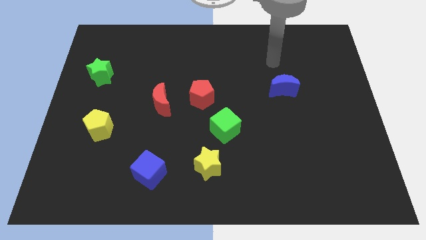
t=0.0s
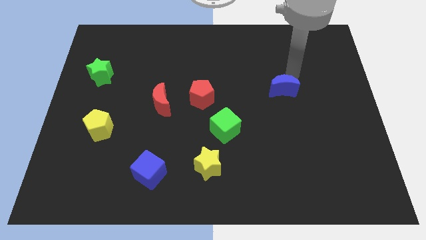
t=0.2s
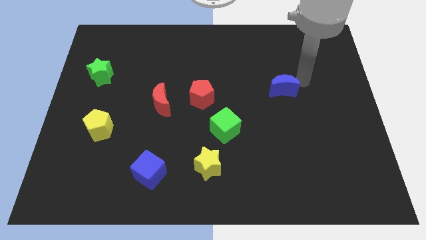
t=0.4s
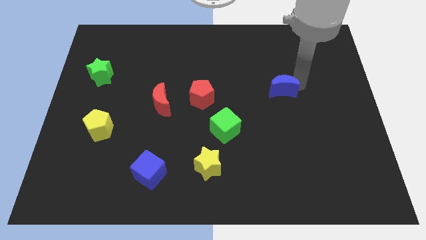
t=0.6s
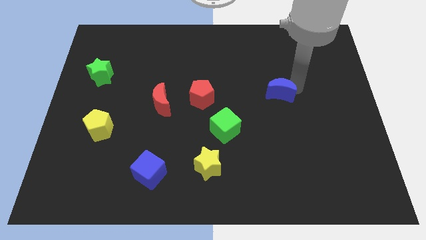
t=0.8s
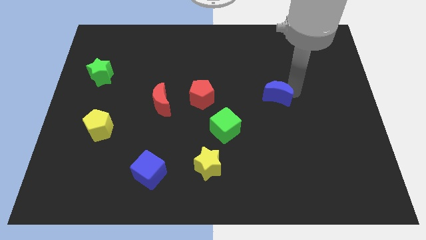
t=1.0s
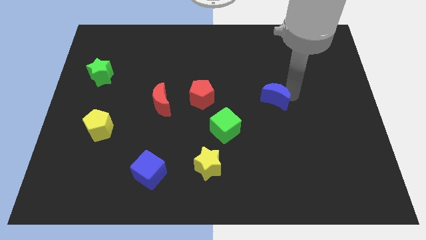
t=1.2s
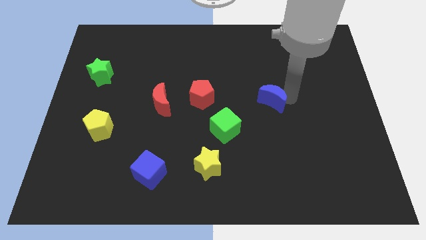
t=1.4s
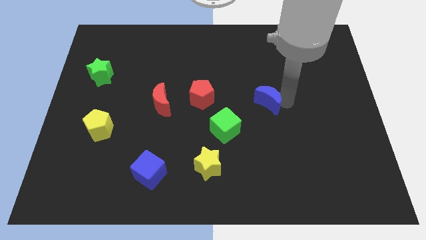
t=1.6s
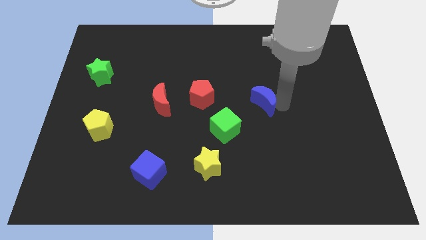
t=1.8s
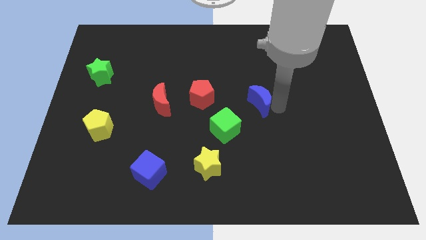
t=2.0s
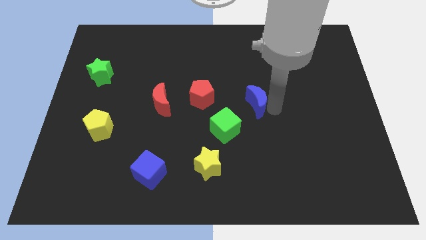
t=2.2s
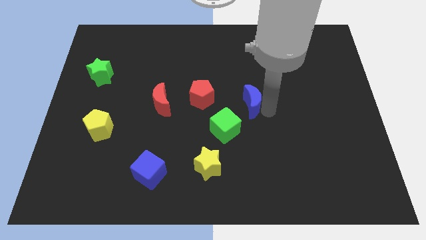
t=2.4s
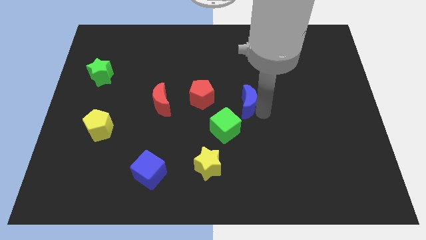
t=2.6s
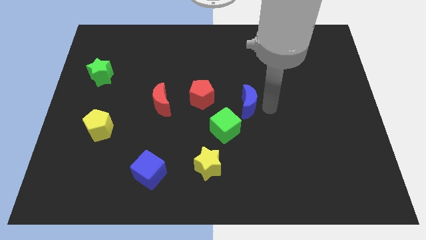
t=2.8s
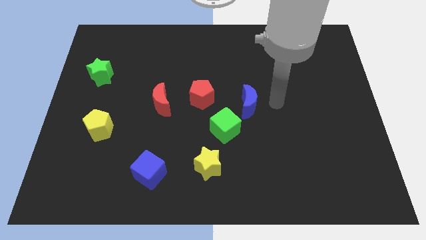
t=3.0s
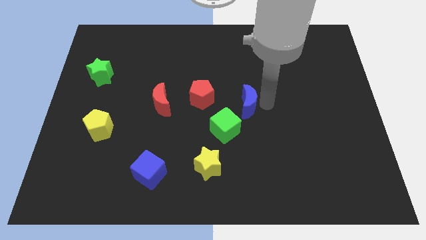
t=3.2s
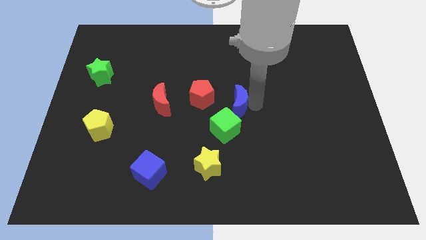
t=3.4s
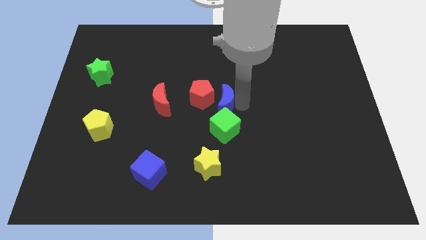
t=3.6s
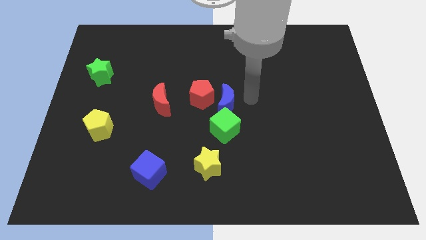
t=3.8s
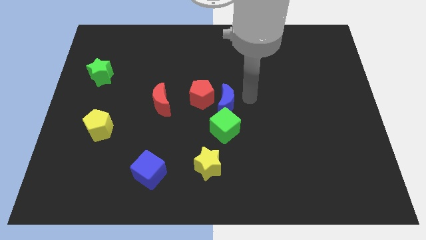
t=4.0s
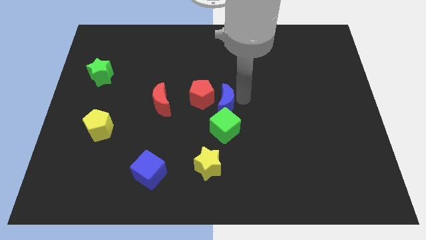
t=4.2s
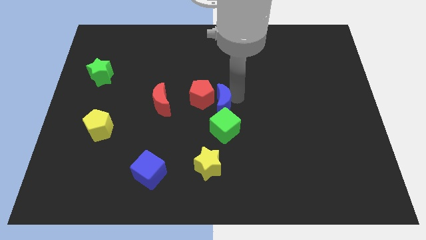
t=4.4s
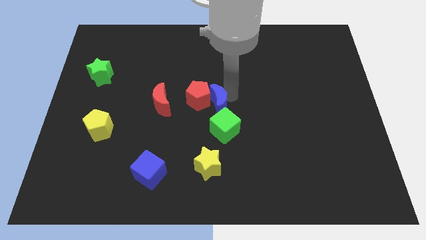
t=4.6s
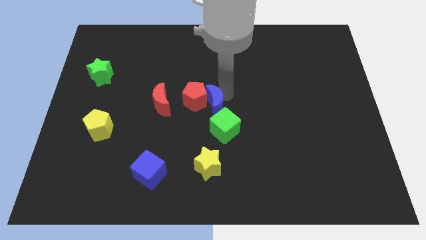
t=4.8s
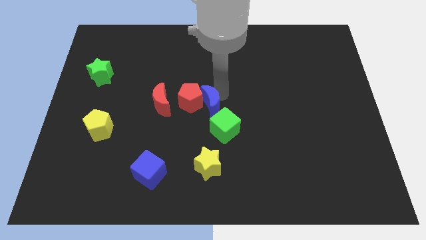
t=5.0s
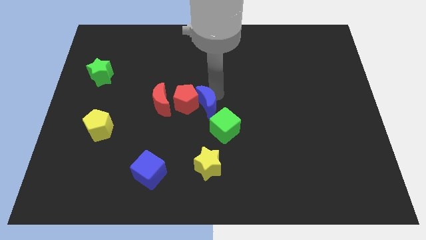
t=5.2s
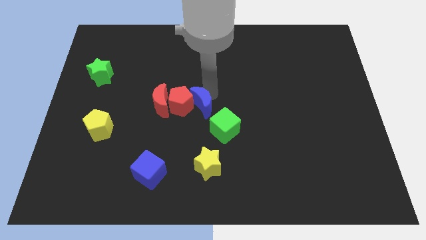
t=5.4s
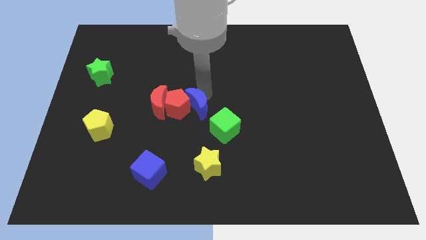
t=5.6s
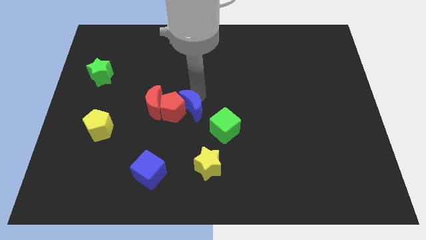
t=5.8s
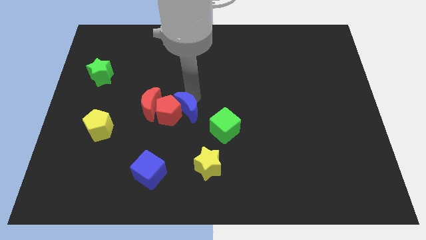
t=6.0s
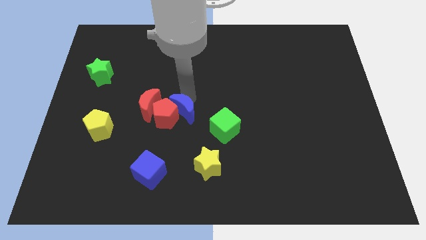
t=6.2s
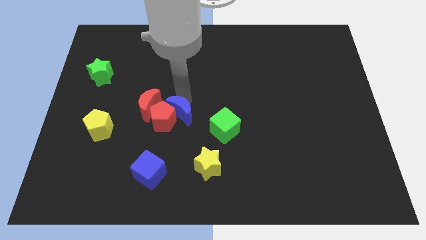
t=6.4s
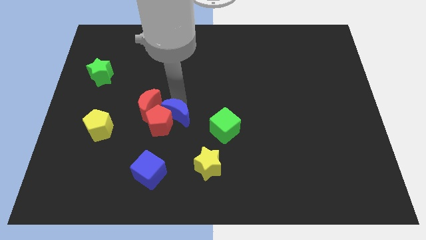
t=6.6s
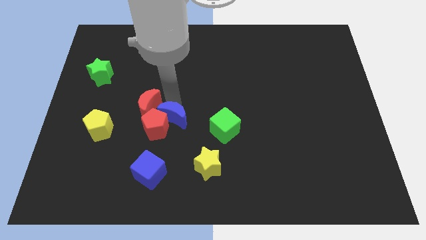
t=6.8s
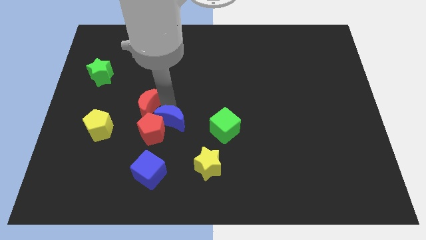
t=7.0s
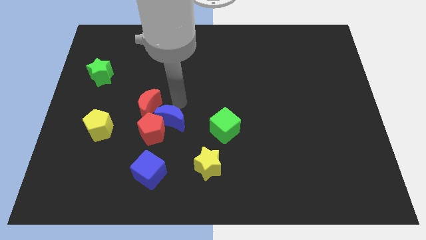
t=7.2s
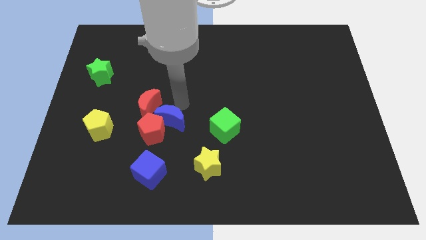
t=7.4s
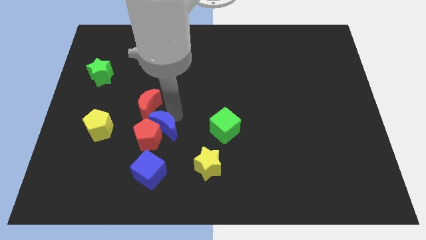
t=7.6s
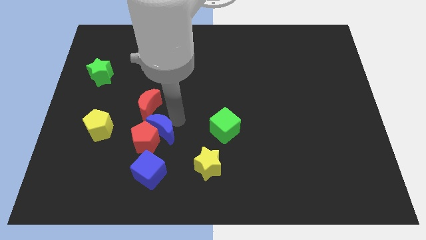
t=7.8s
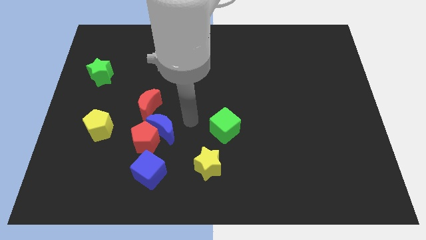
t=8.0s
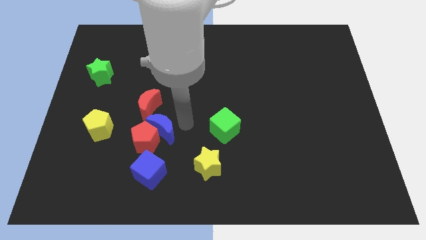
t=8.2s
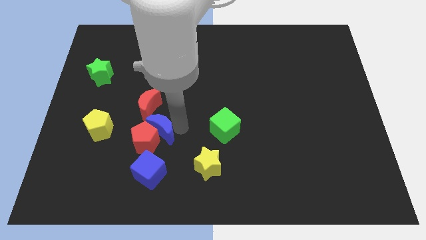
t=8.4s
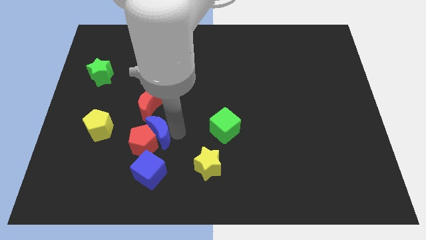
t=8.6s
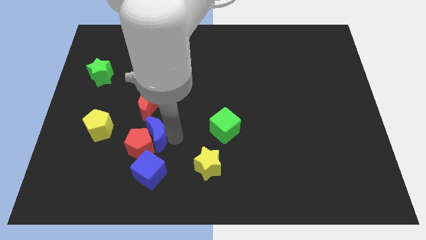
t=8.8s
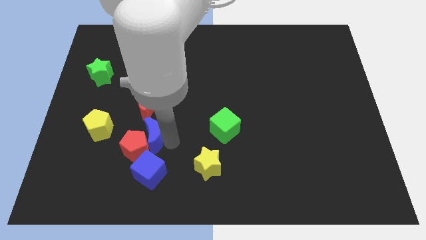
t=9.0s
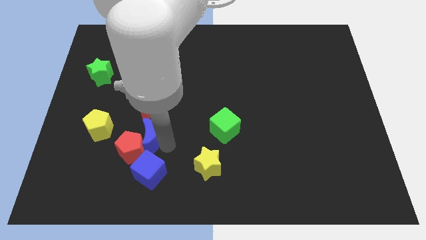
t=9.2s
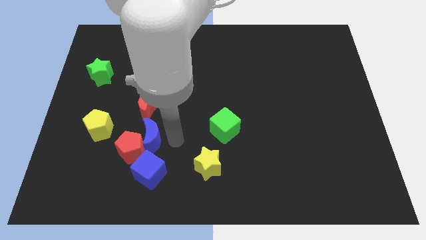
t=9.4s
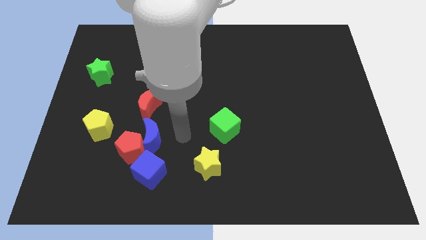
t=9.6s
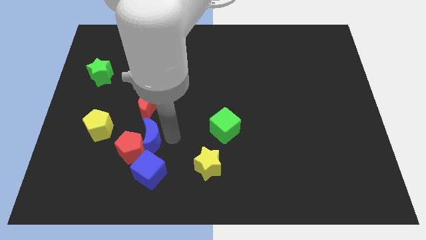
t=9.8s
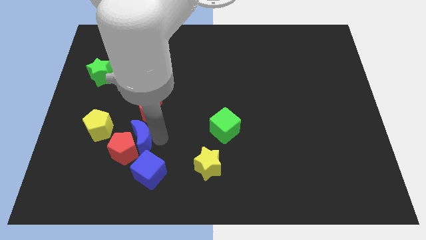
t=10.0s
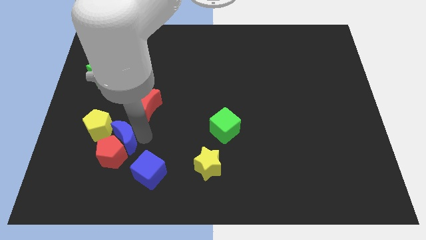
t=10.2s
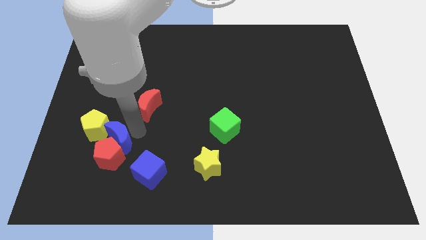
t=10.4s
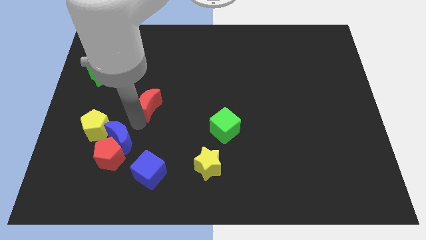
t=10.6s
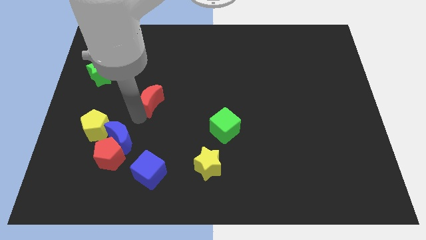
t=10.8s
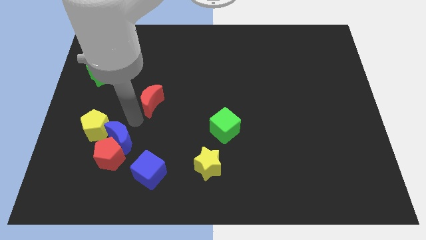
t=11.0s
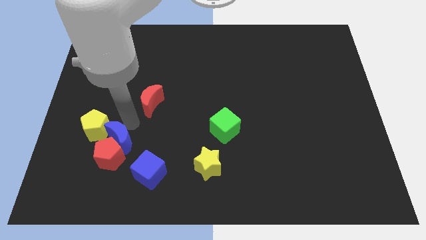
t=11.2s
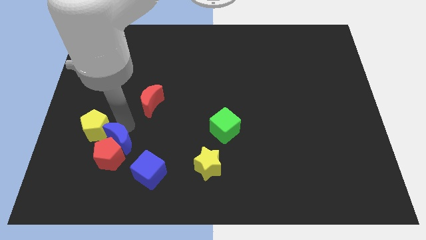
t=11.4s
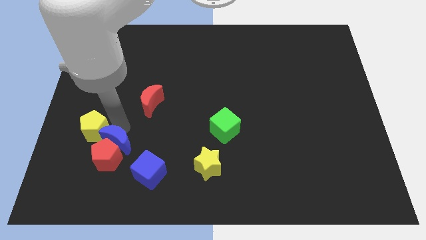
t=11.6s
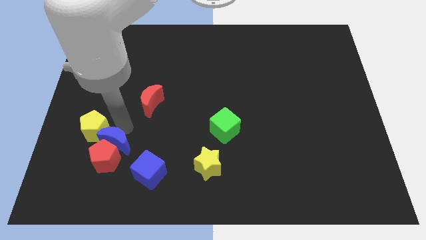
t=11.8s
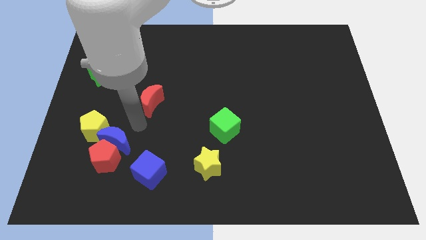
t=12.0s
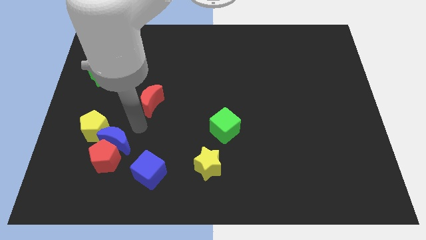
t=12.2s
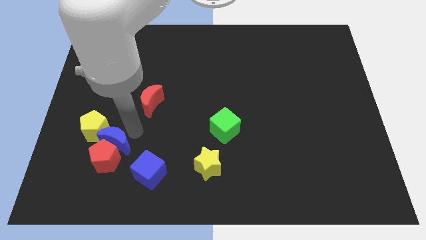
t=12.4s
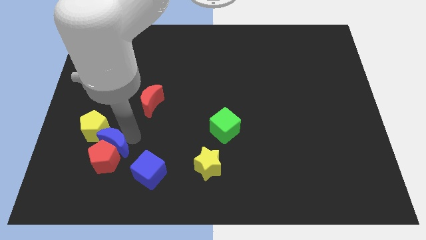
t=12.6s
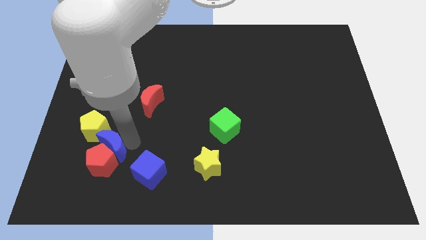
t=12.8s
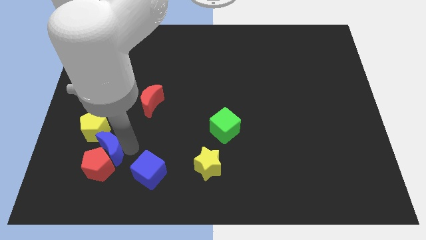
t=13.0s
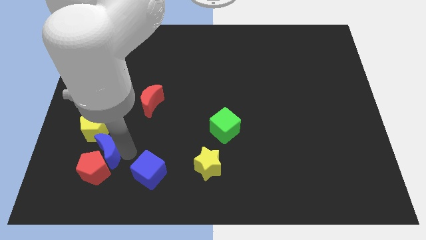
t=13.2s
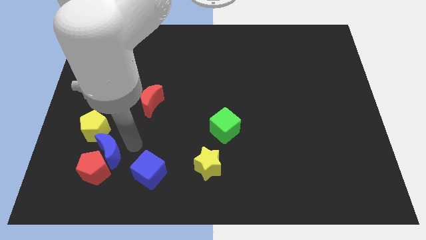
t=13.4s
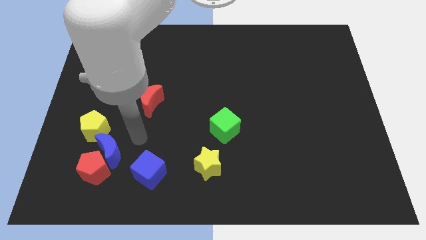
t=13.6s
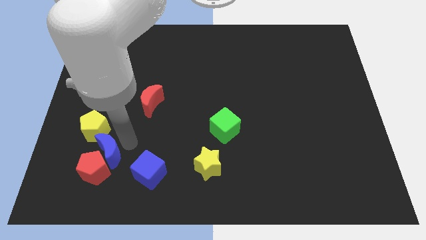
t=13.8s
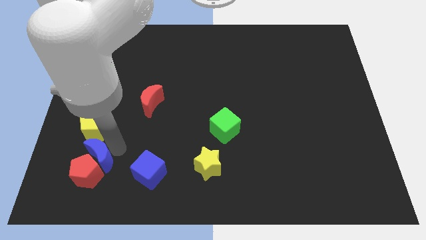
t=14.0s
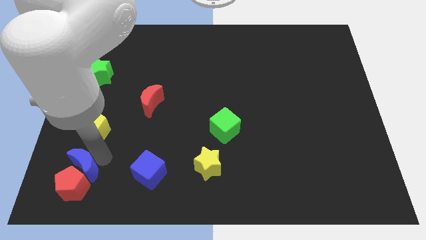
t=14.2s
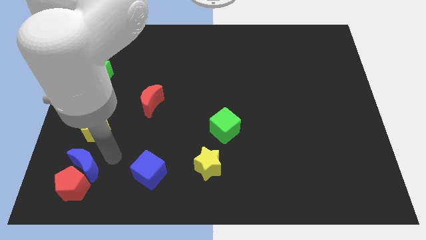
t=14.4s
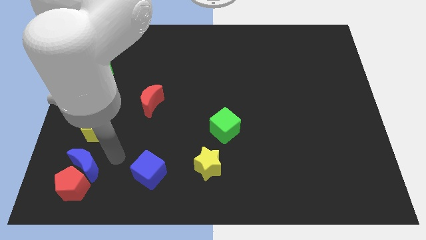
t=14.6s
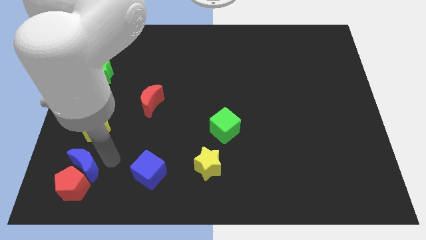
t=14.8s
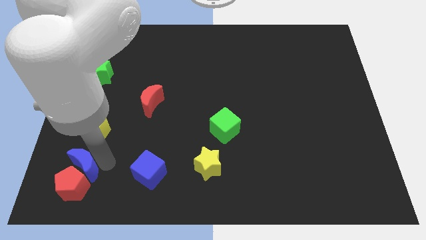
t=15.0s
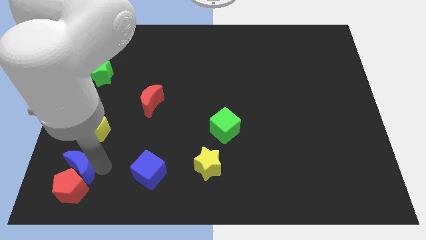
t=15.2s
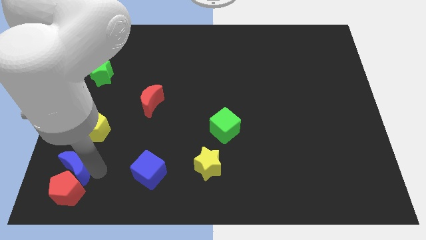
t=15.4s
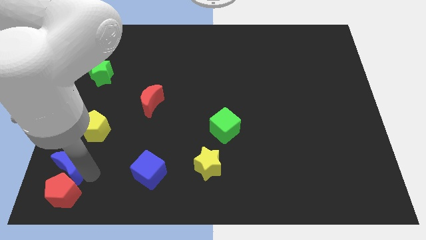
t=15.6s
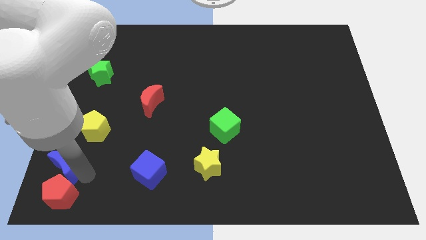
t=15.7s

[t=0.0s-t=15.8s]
slide the blue moon to the bottom left of the board
